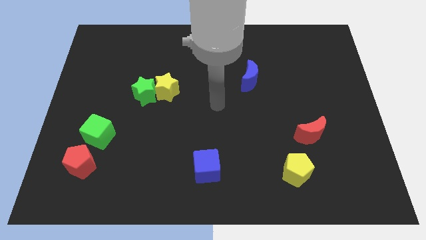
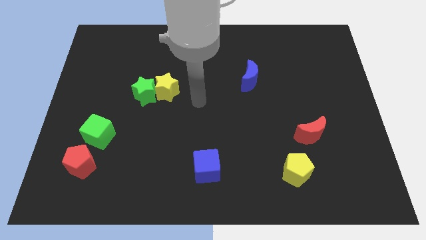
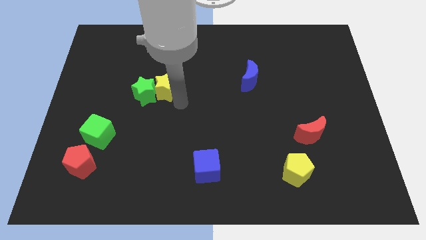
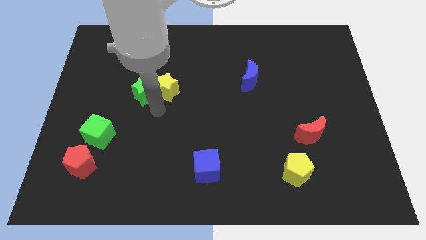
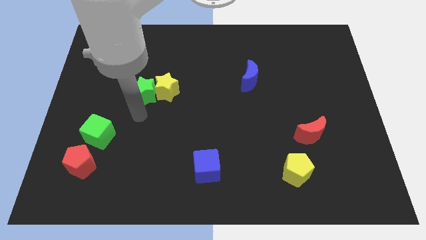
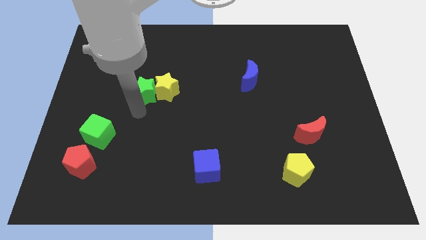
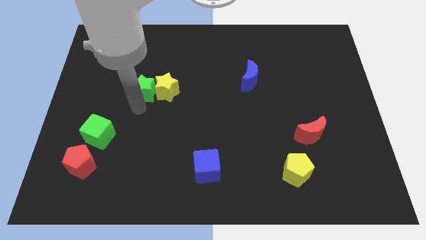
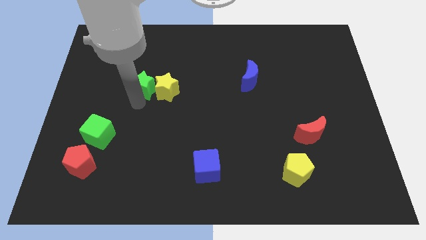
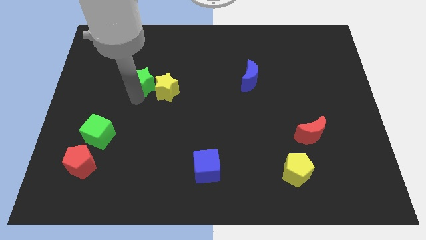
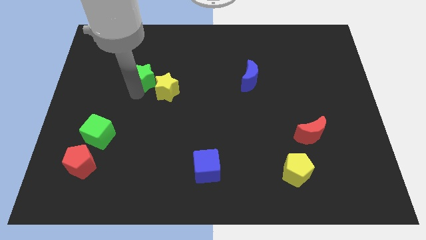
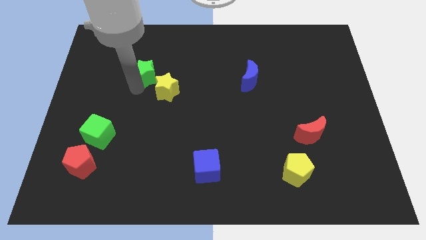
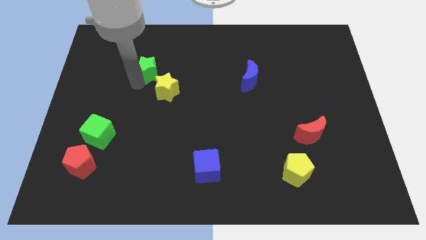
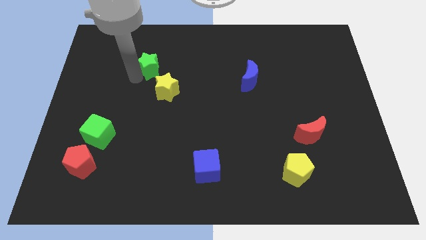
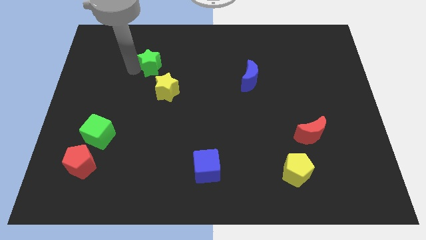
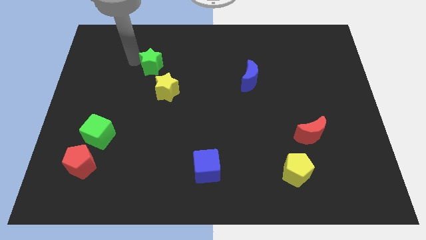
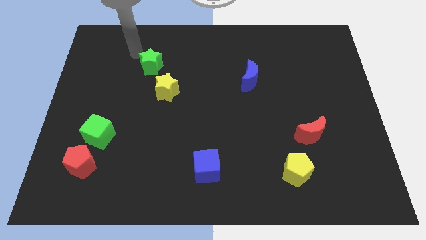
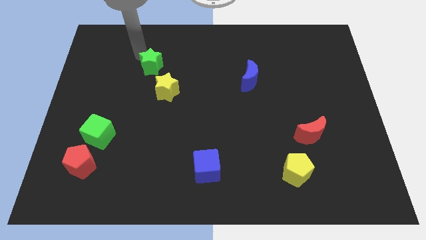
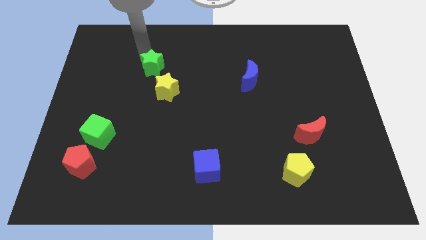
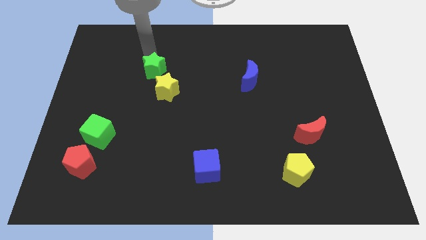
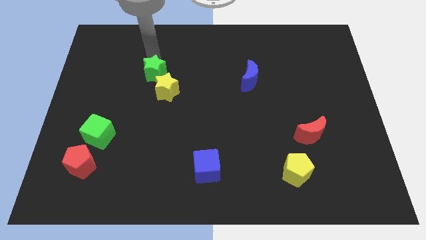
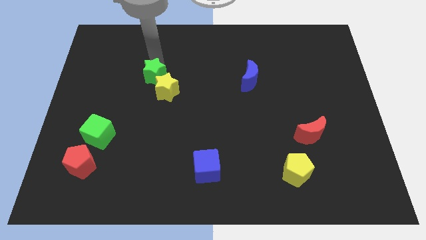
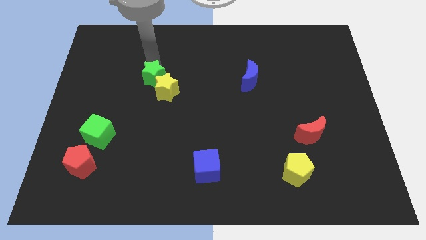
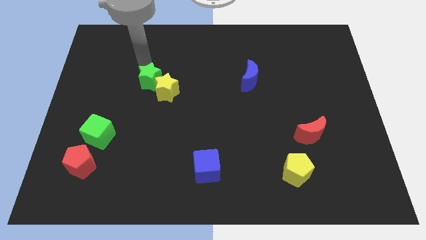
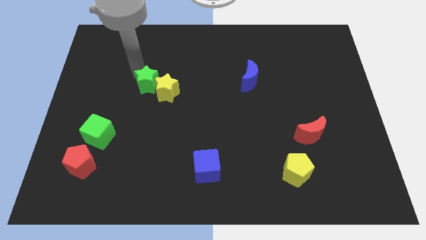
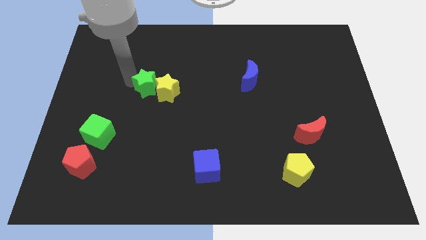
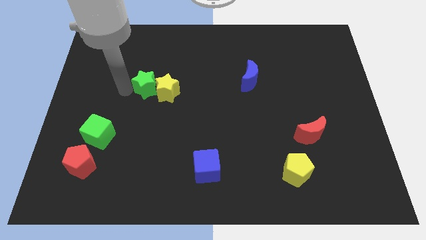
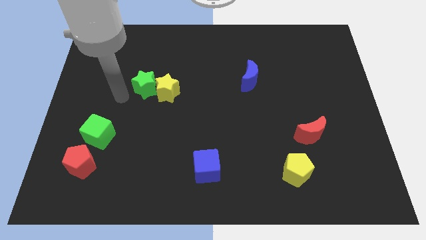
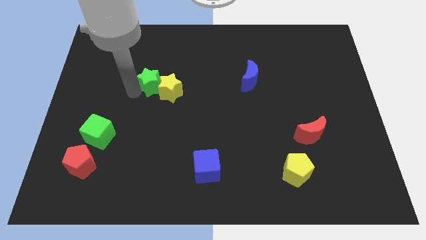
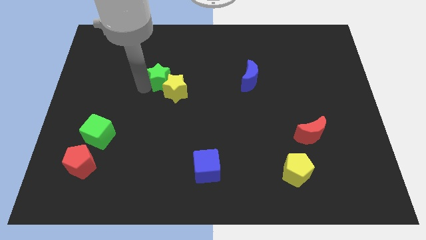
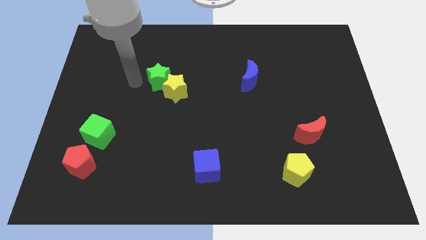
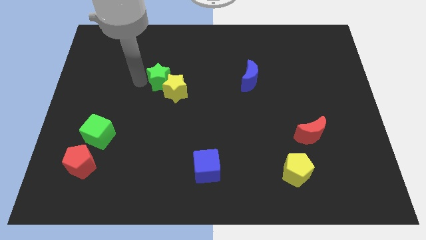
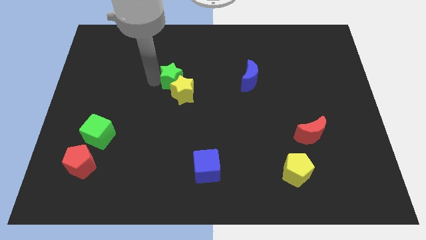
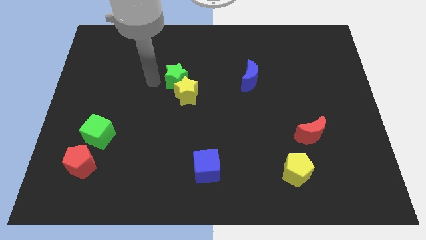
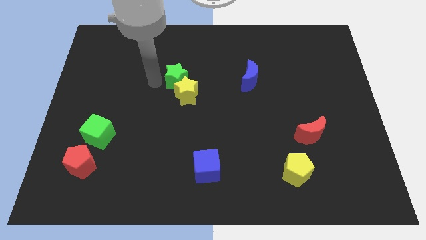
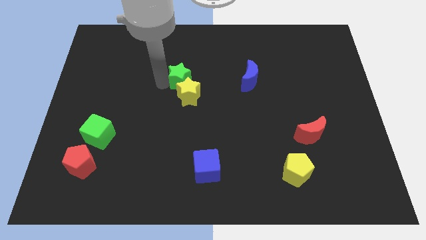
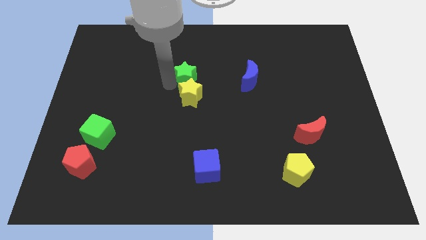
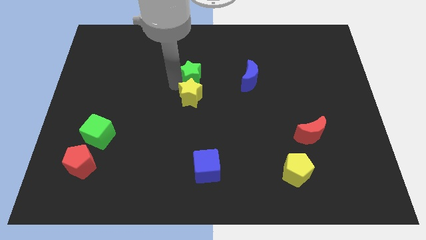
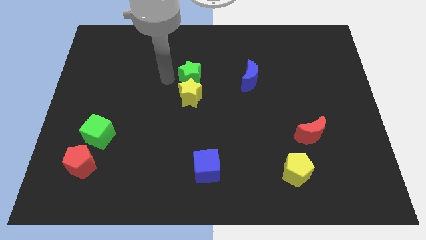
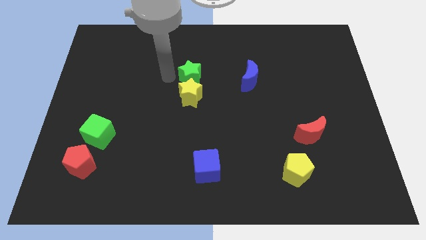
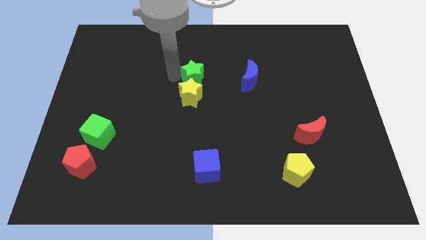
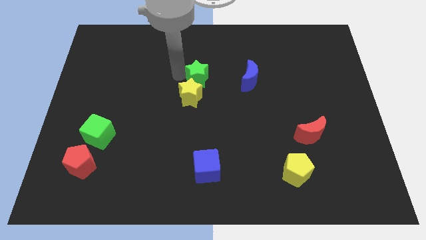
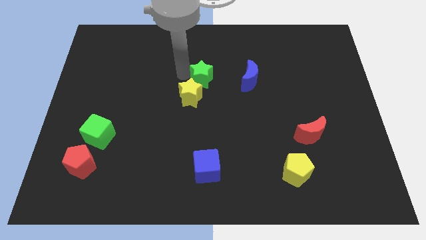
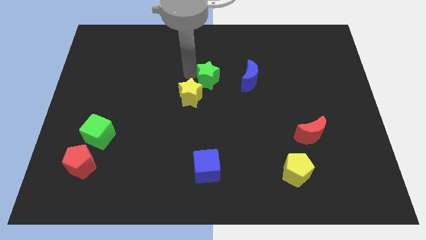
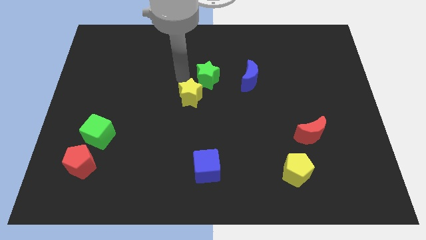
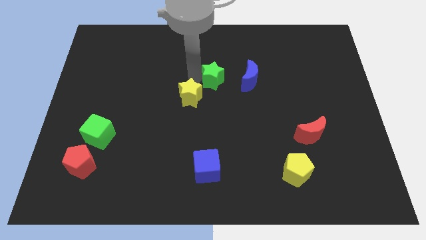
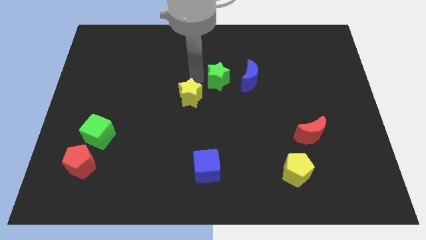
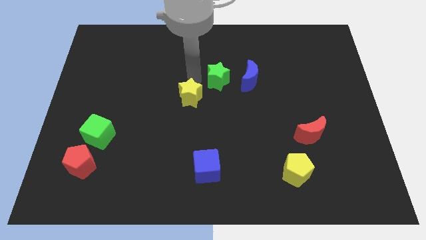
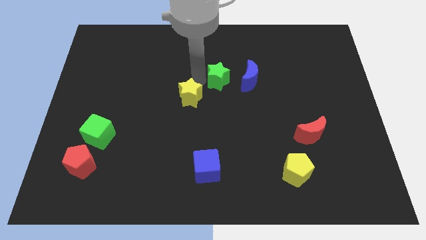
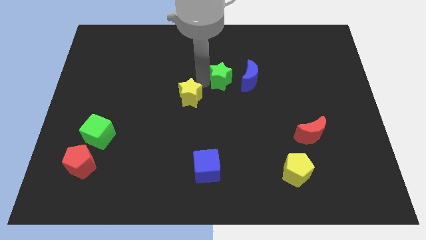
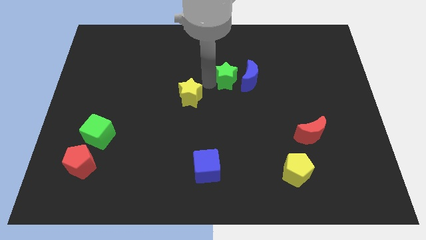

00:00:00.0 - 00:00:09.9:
put the green star to the blue moon

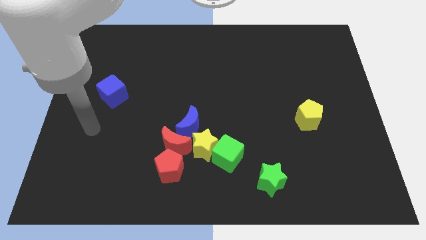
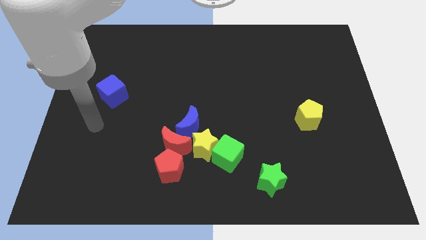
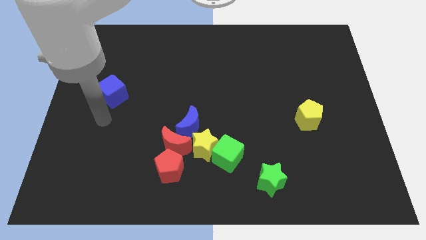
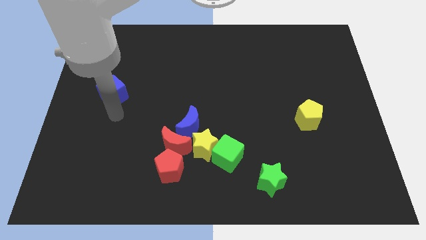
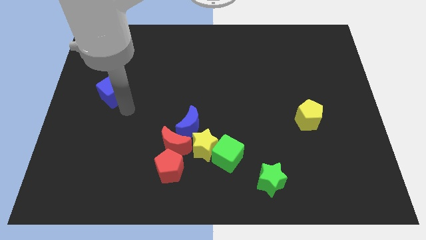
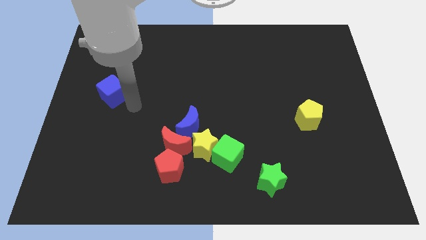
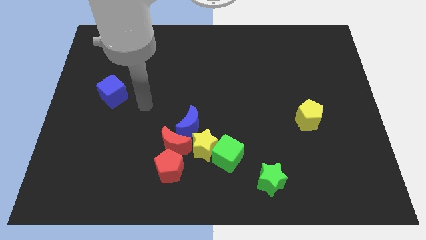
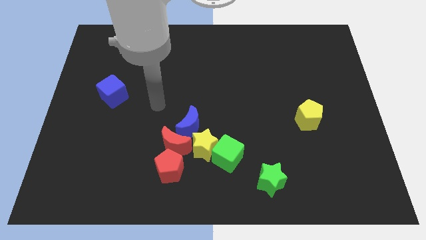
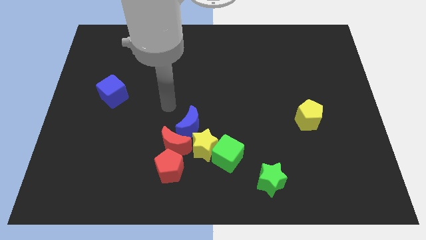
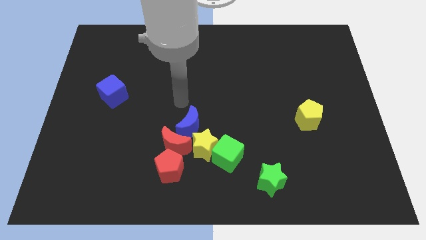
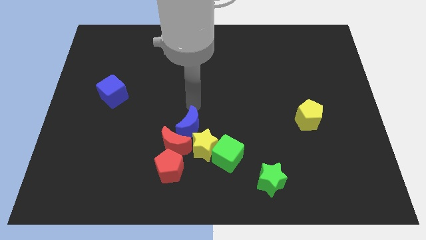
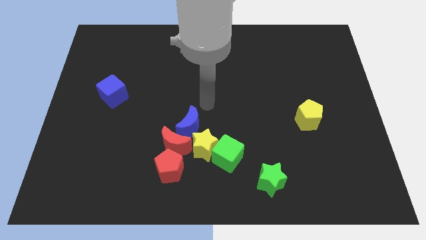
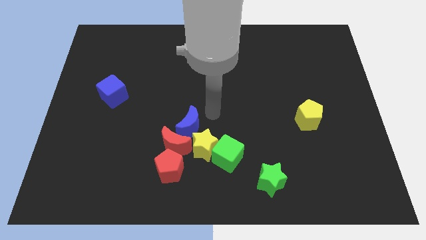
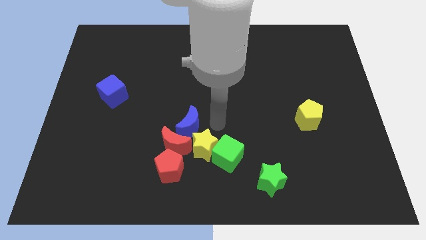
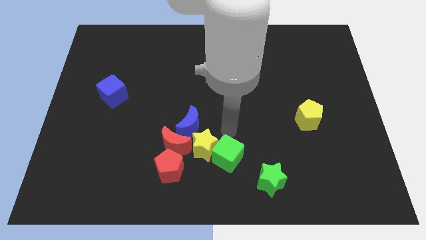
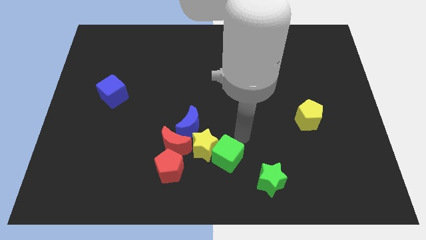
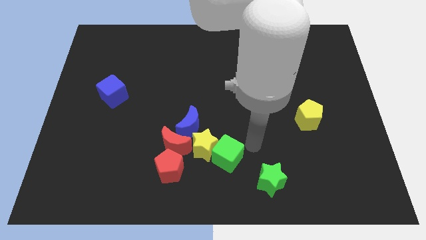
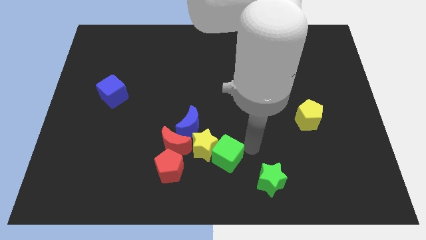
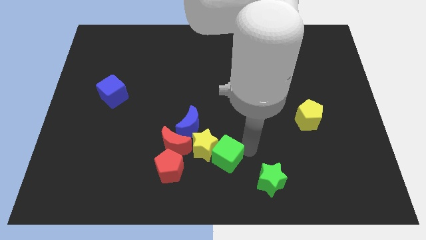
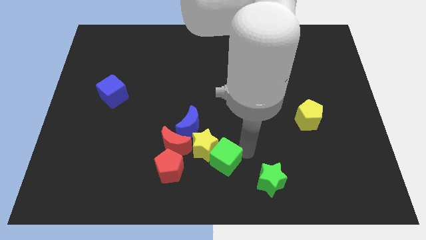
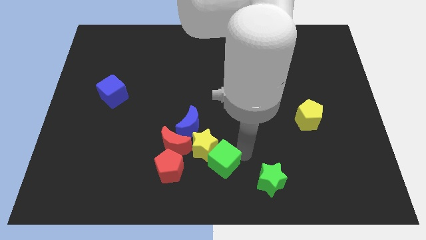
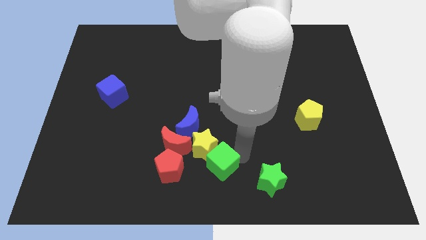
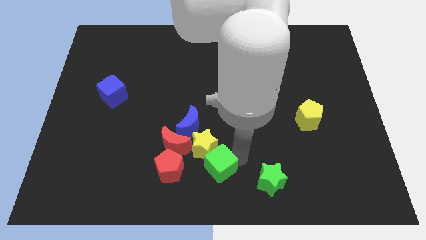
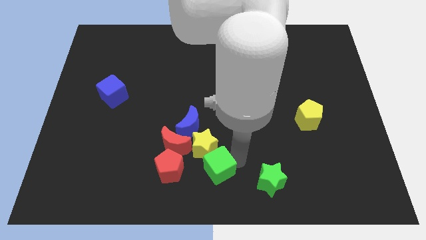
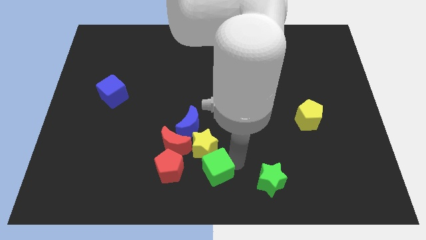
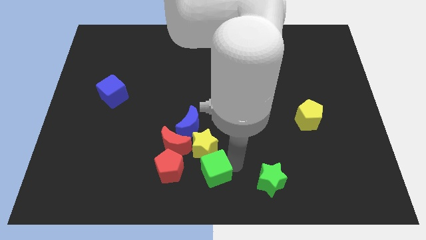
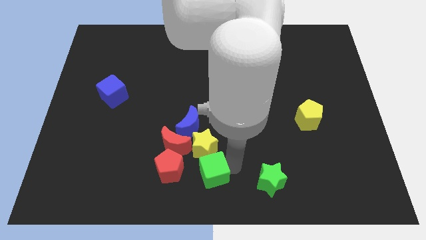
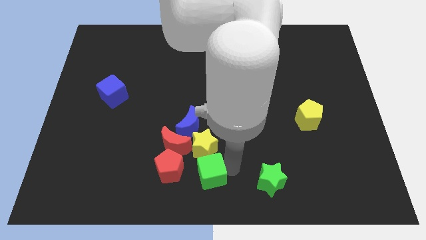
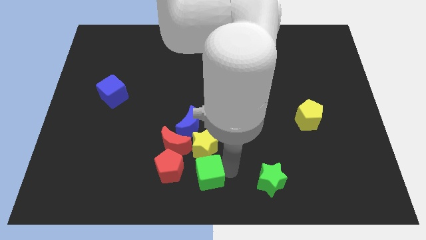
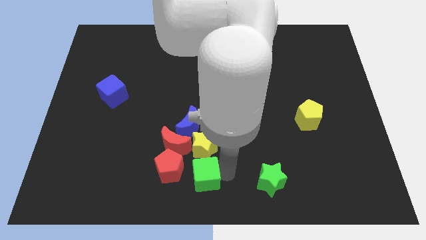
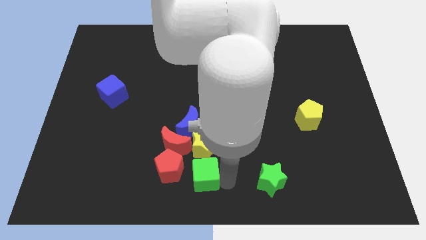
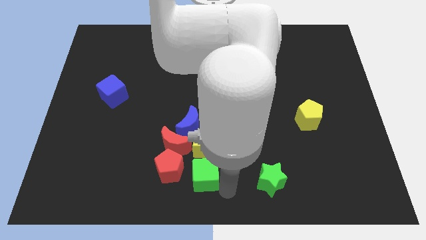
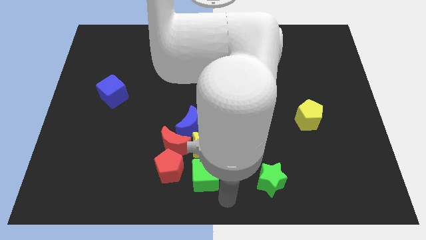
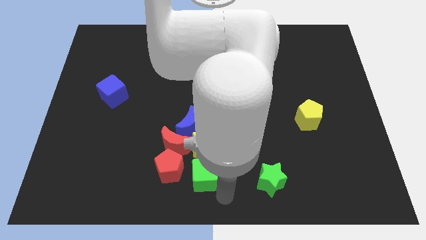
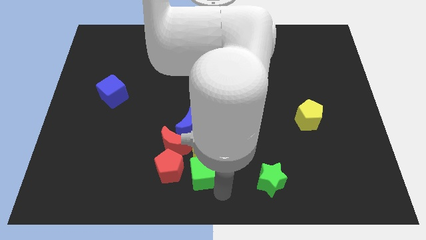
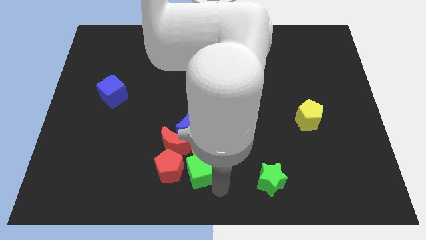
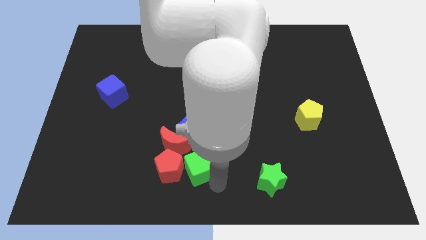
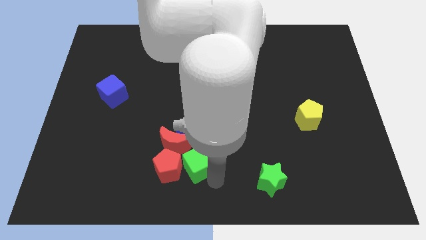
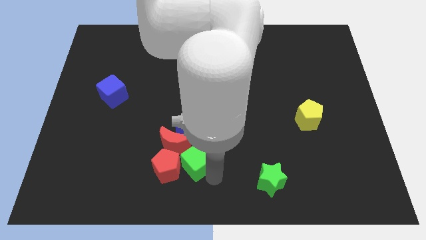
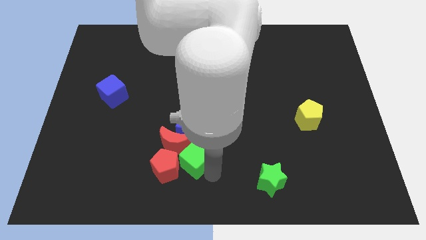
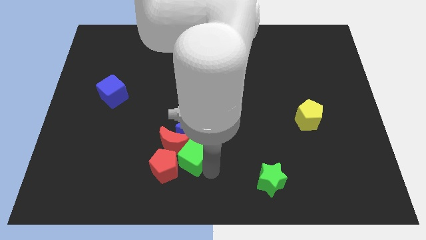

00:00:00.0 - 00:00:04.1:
move the green cube next to the red moon
